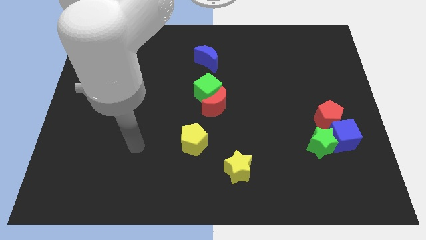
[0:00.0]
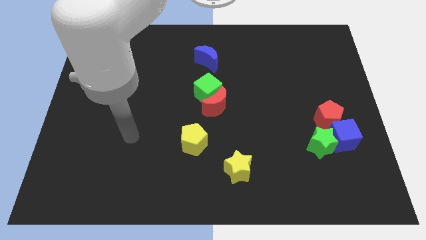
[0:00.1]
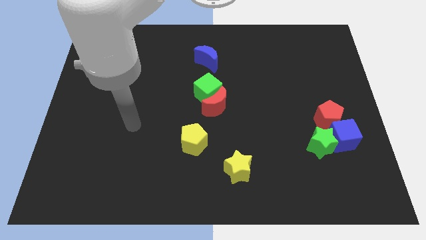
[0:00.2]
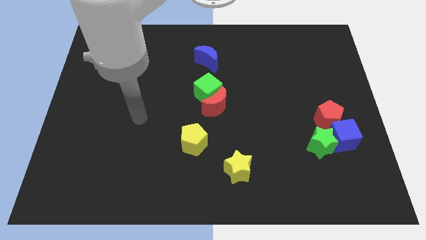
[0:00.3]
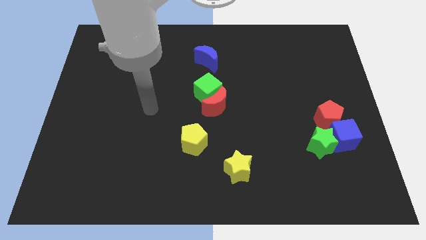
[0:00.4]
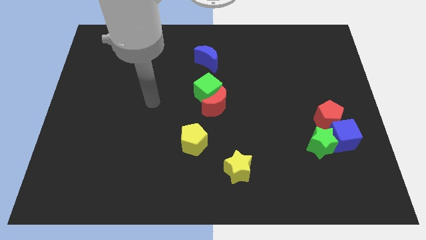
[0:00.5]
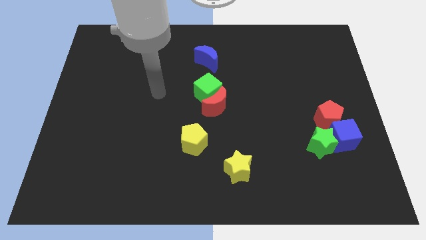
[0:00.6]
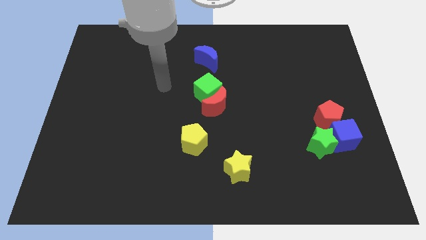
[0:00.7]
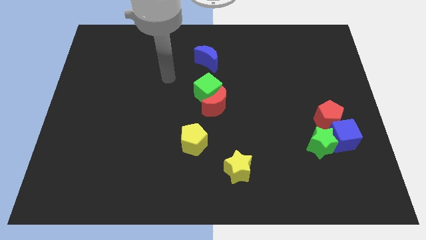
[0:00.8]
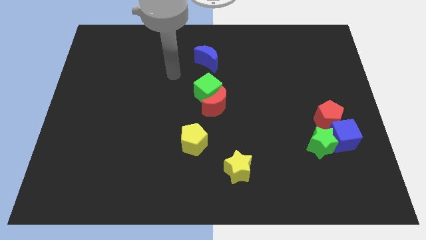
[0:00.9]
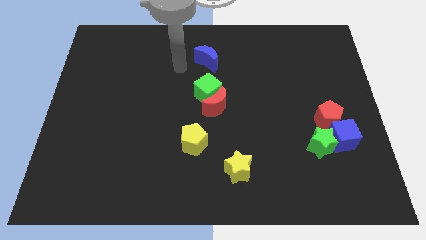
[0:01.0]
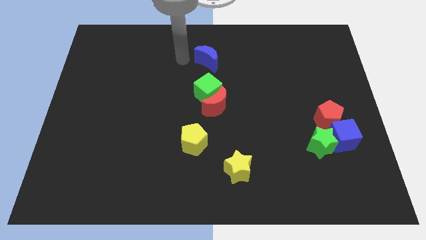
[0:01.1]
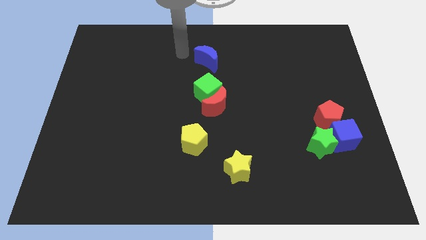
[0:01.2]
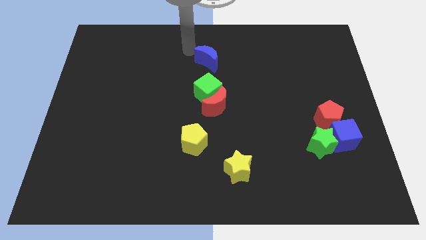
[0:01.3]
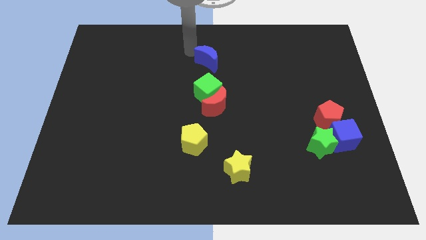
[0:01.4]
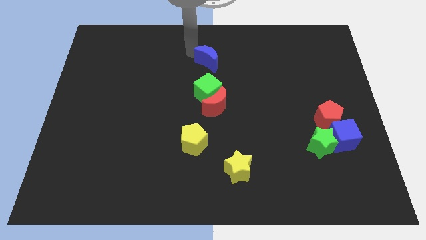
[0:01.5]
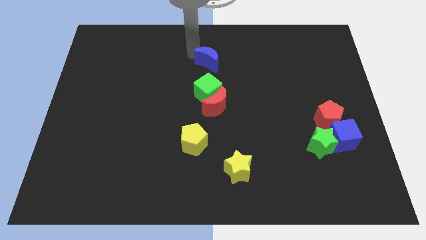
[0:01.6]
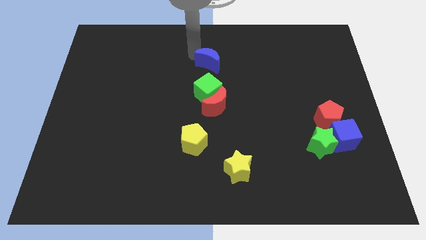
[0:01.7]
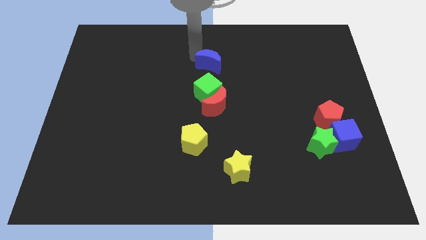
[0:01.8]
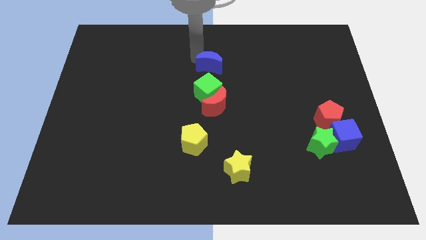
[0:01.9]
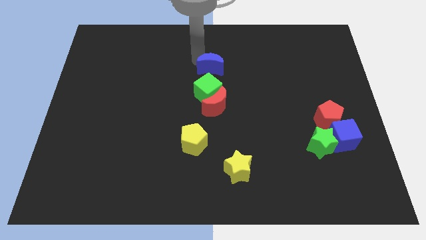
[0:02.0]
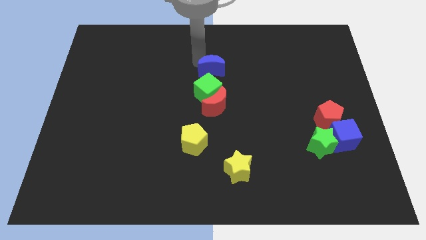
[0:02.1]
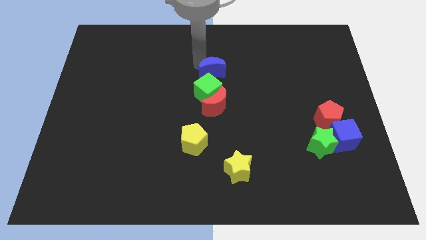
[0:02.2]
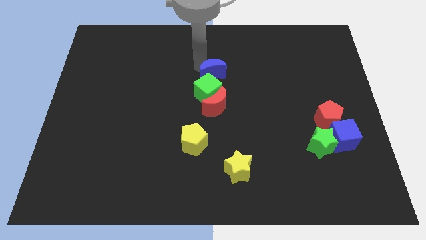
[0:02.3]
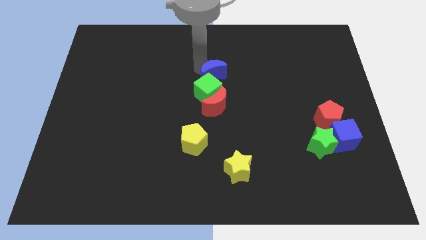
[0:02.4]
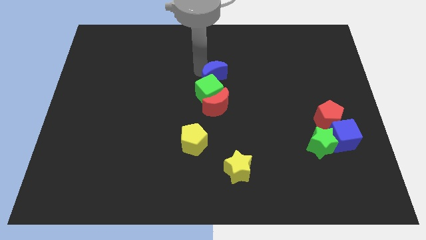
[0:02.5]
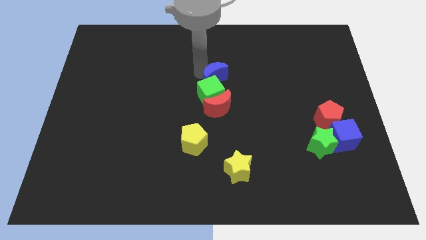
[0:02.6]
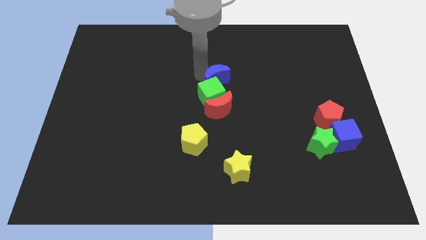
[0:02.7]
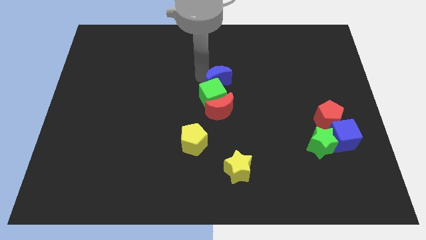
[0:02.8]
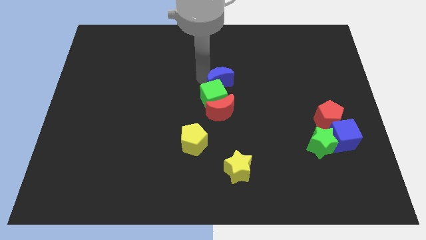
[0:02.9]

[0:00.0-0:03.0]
move the blue moon downwards and then right slightly

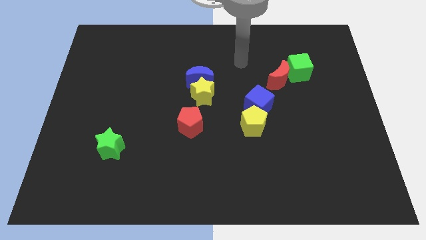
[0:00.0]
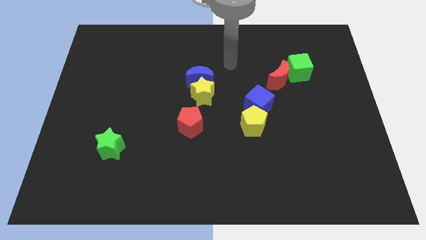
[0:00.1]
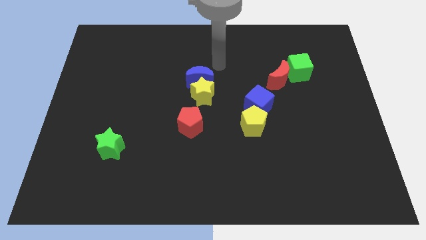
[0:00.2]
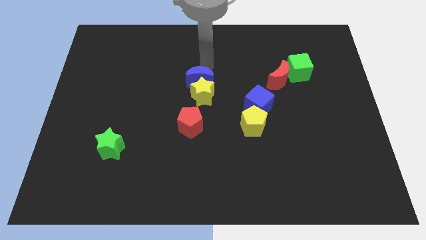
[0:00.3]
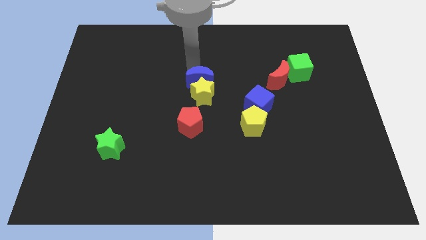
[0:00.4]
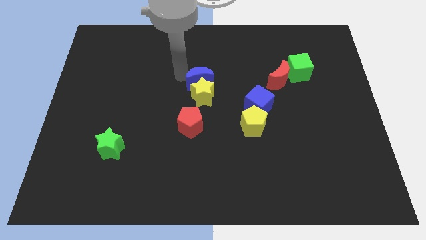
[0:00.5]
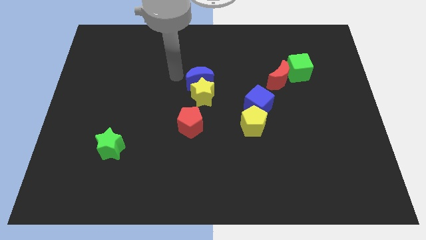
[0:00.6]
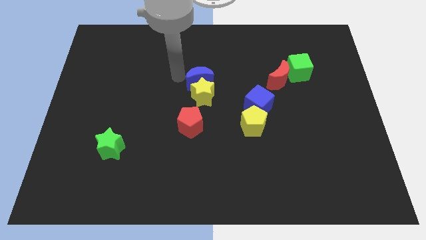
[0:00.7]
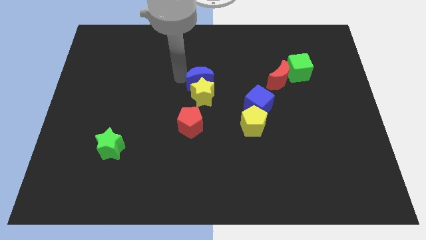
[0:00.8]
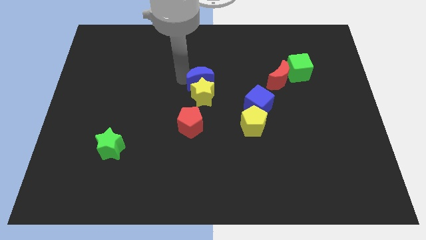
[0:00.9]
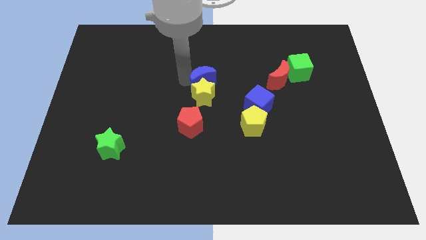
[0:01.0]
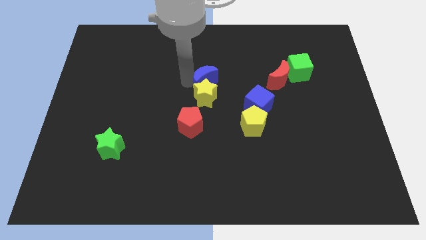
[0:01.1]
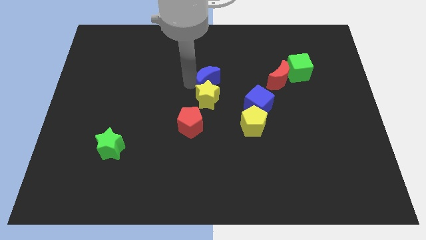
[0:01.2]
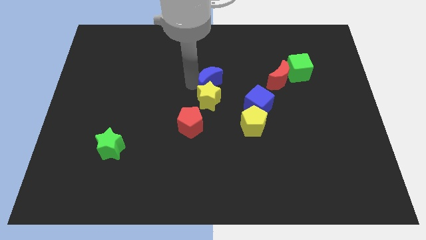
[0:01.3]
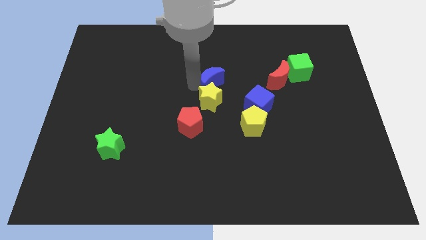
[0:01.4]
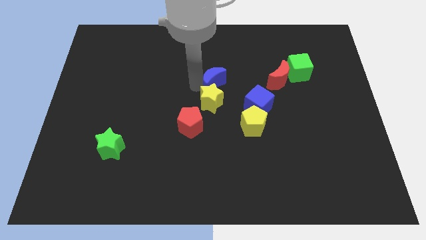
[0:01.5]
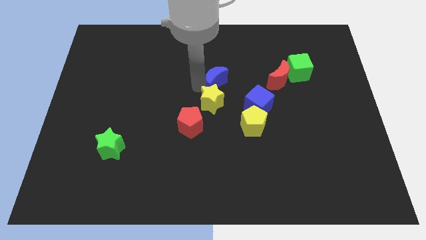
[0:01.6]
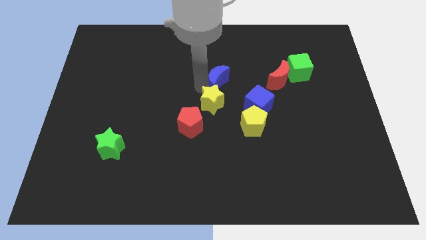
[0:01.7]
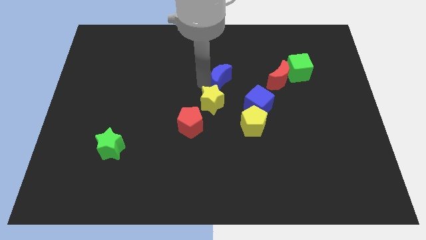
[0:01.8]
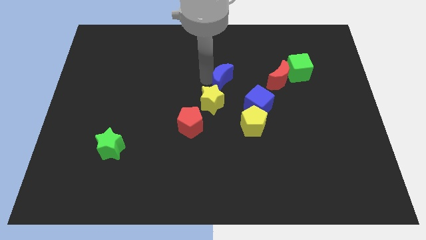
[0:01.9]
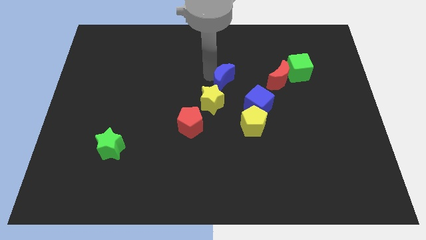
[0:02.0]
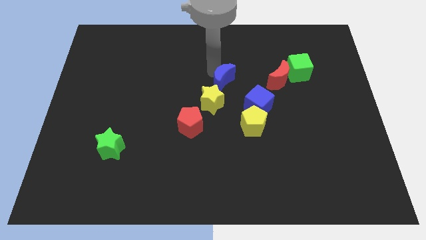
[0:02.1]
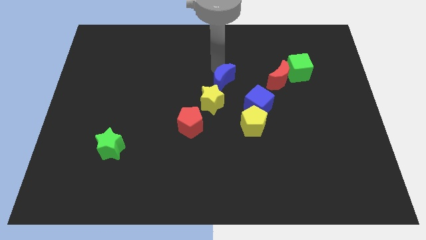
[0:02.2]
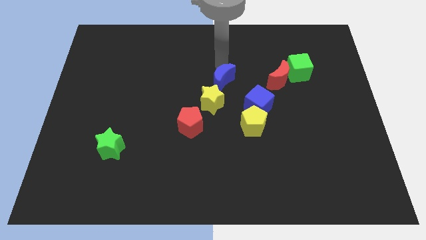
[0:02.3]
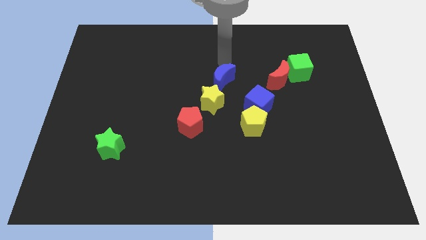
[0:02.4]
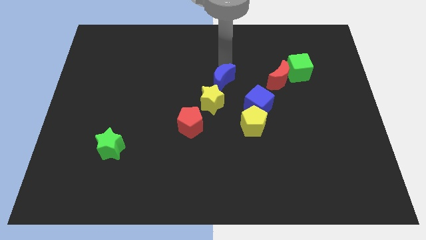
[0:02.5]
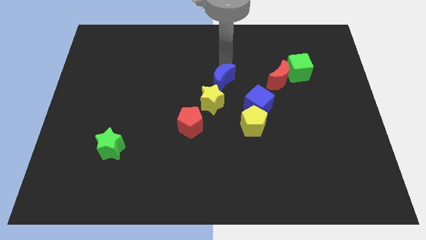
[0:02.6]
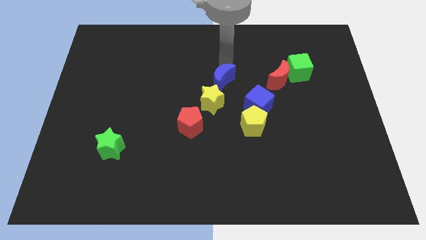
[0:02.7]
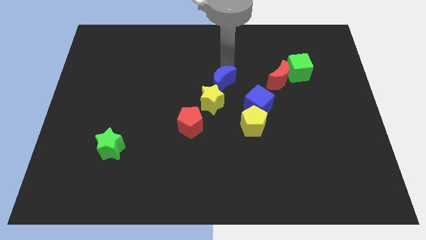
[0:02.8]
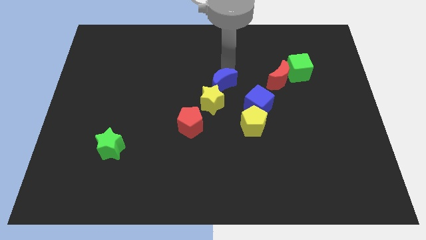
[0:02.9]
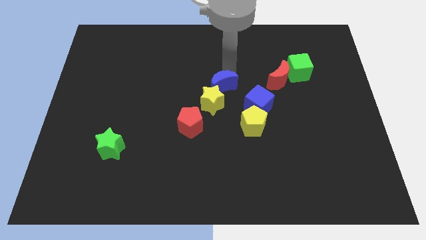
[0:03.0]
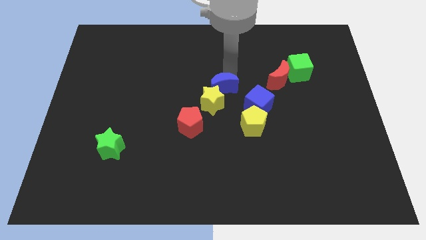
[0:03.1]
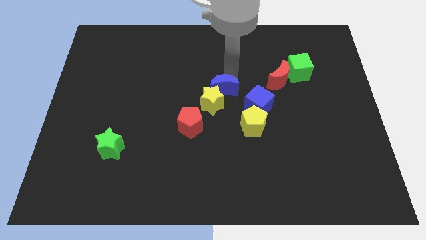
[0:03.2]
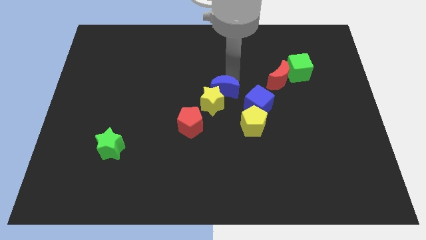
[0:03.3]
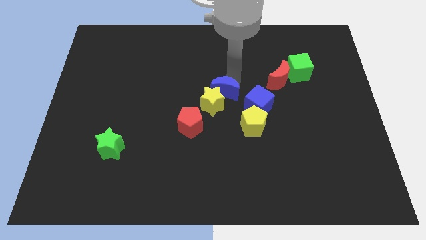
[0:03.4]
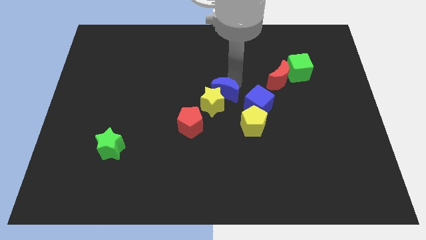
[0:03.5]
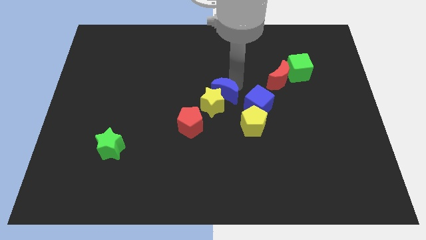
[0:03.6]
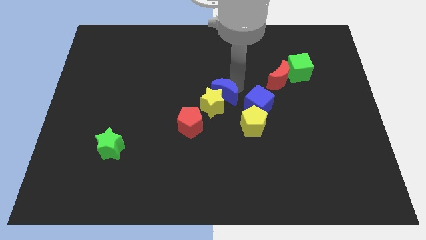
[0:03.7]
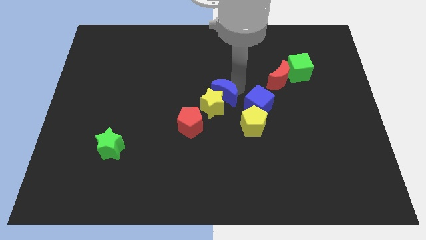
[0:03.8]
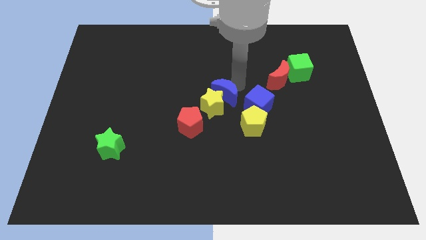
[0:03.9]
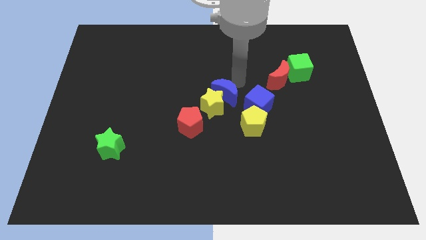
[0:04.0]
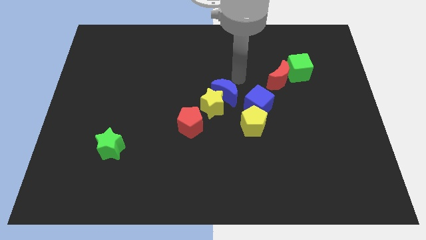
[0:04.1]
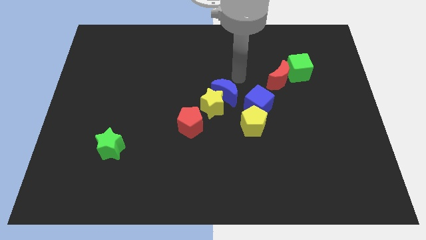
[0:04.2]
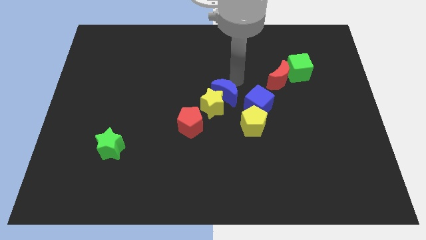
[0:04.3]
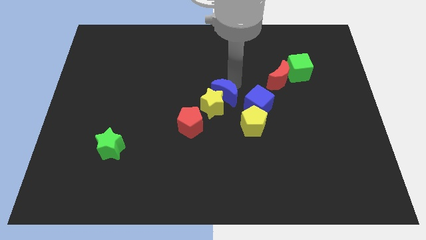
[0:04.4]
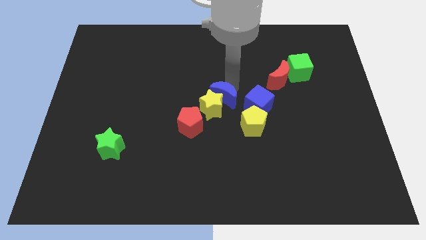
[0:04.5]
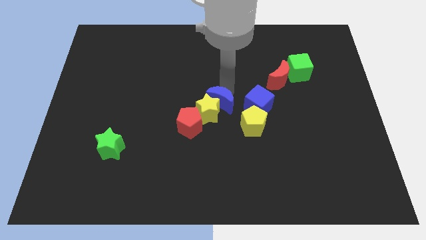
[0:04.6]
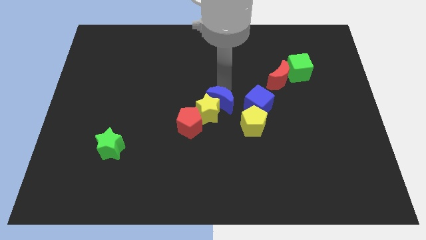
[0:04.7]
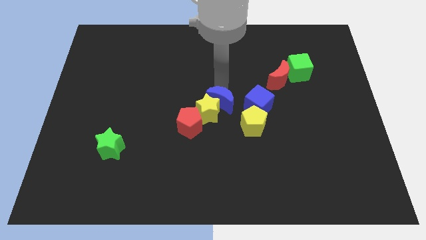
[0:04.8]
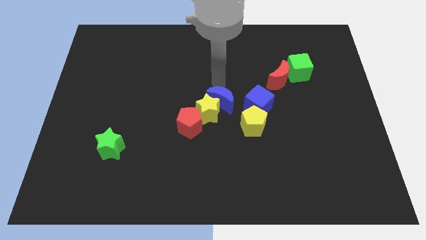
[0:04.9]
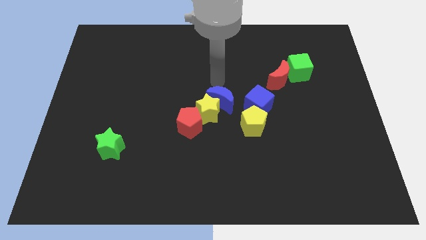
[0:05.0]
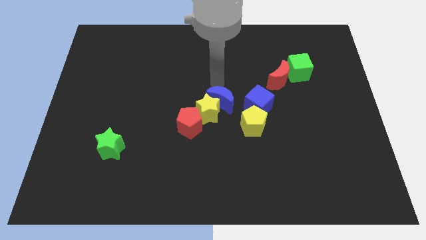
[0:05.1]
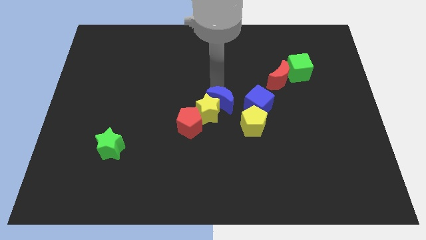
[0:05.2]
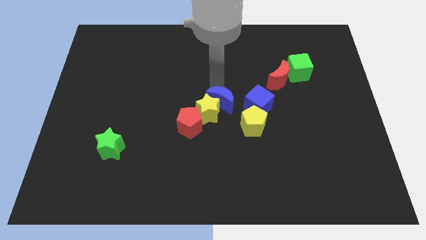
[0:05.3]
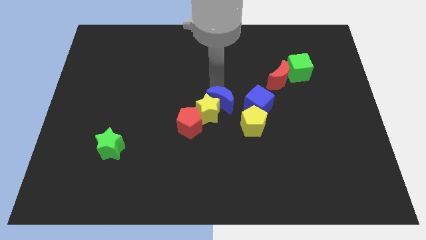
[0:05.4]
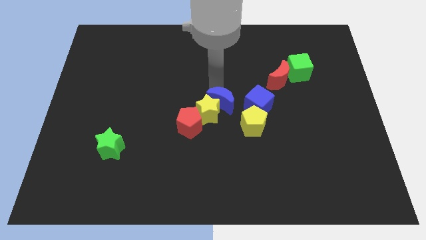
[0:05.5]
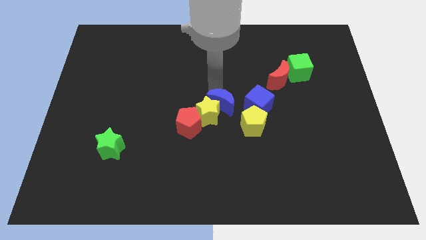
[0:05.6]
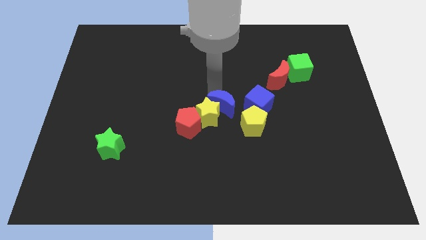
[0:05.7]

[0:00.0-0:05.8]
move the blue moon a little bit down
